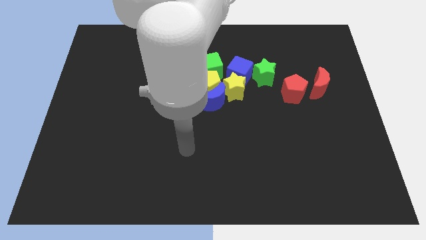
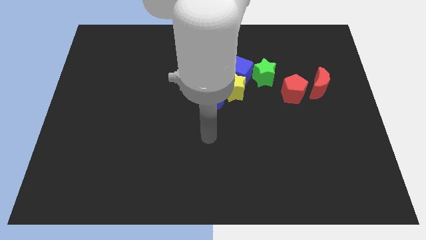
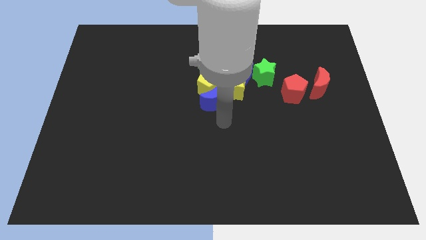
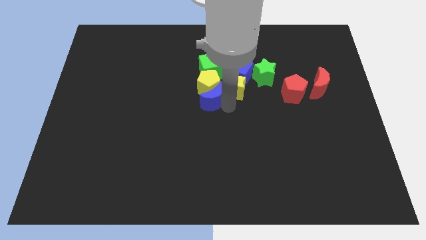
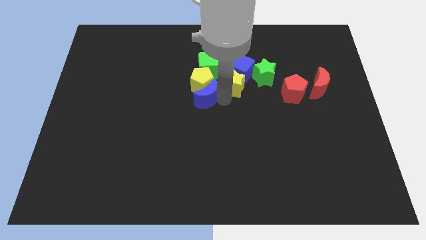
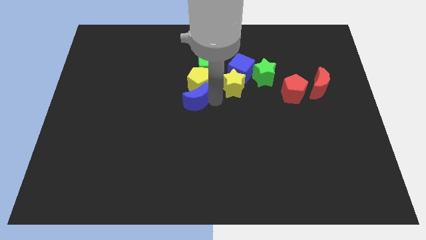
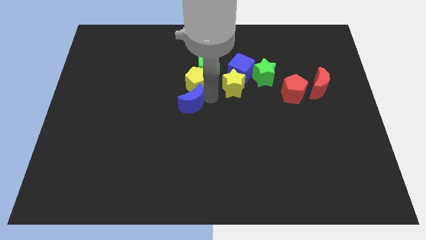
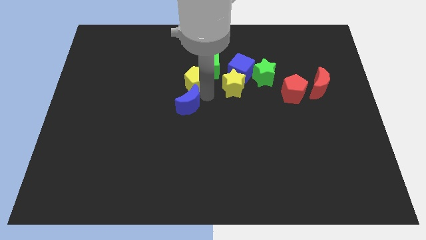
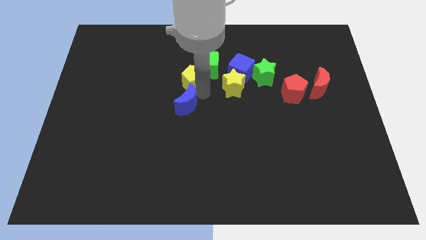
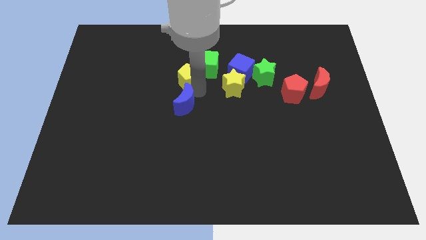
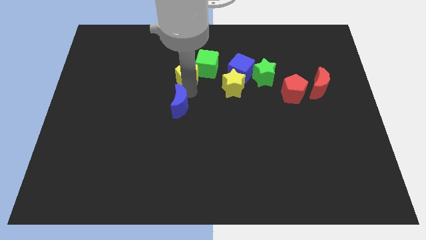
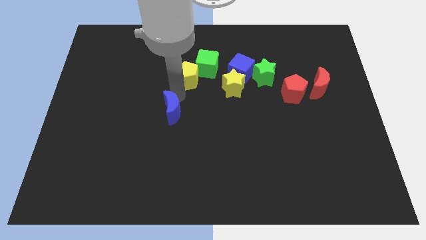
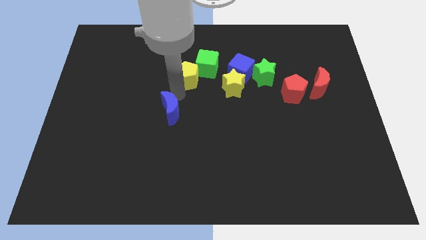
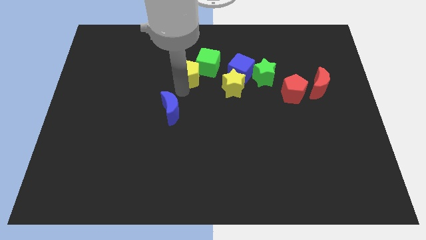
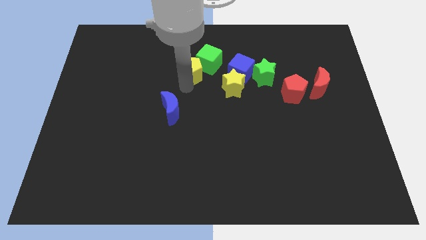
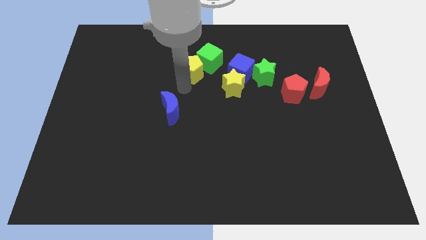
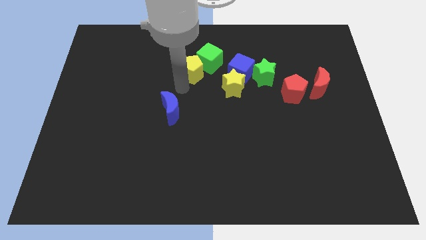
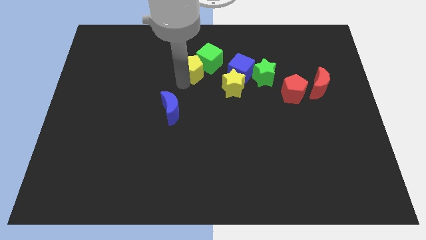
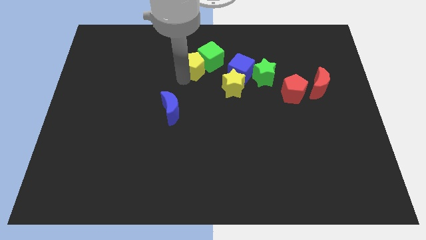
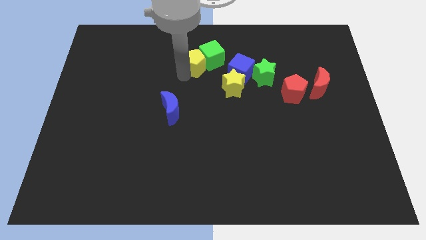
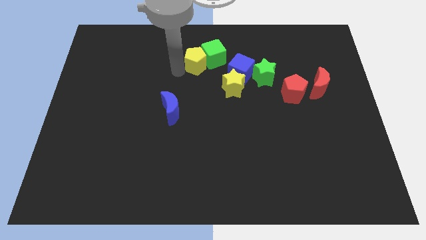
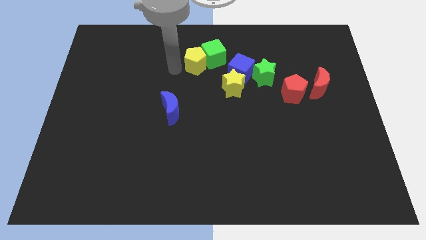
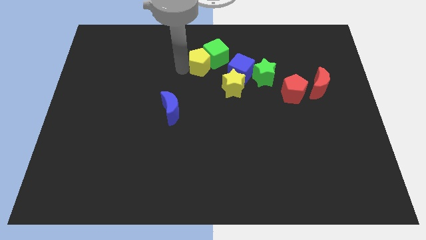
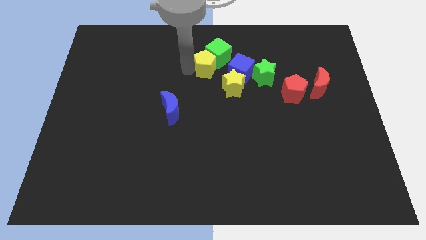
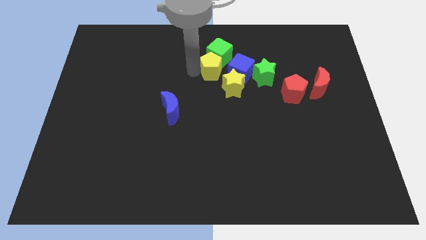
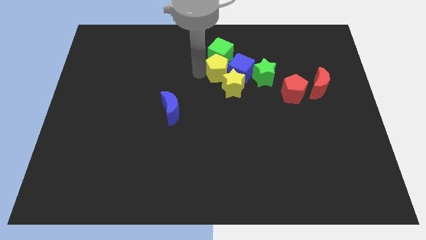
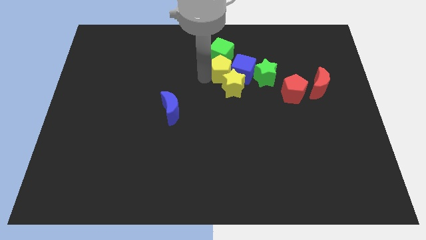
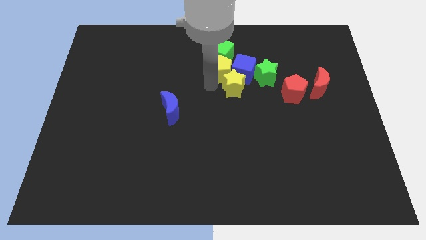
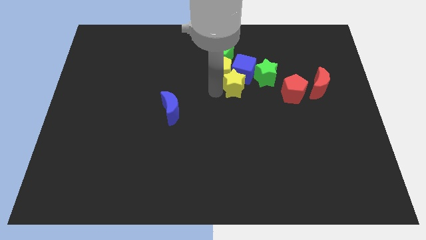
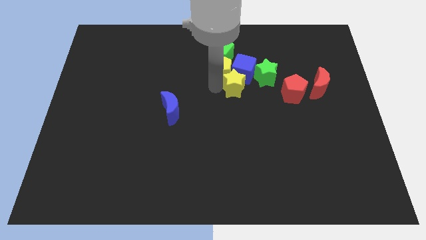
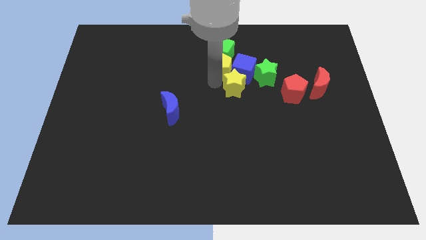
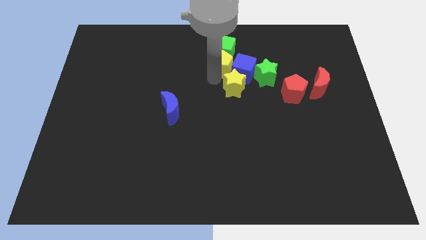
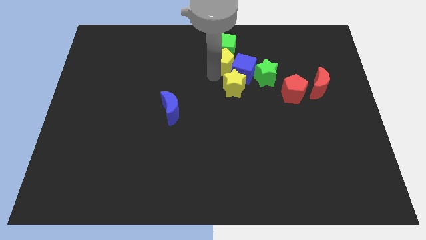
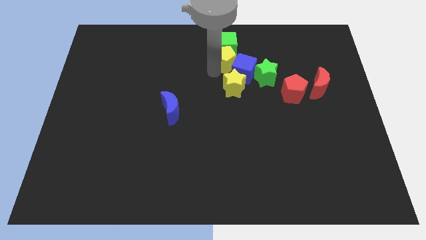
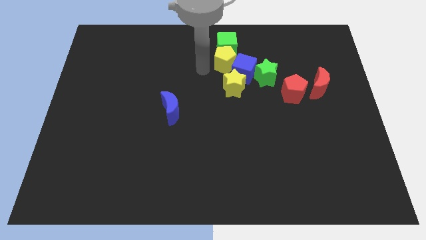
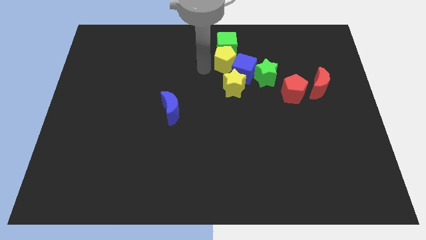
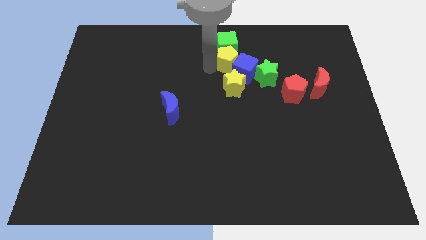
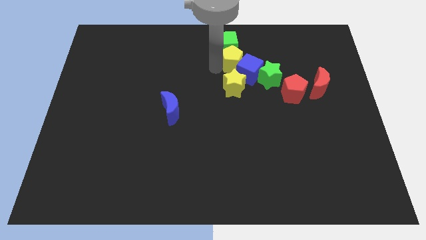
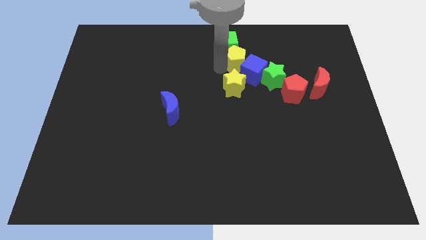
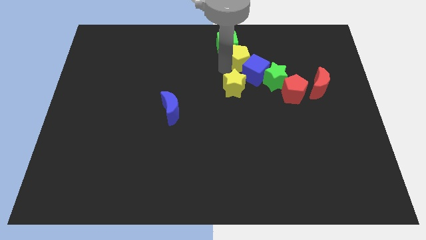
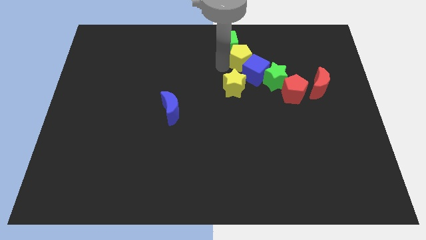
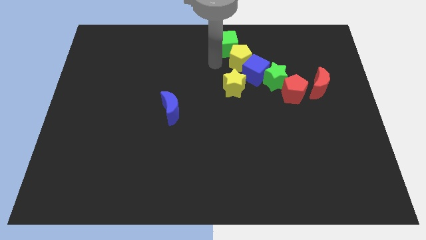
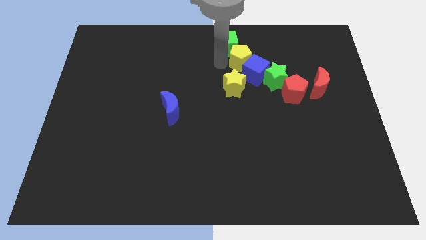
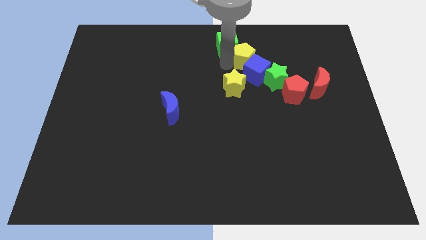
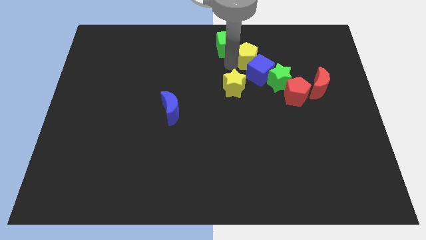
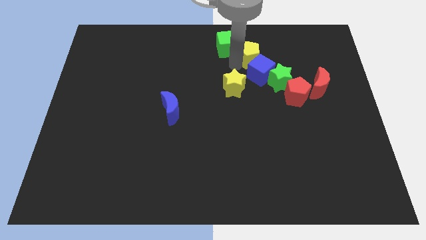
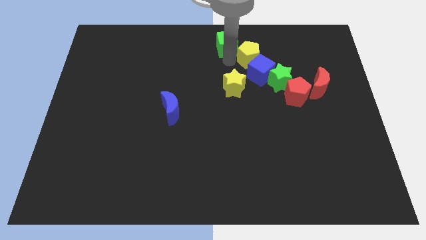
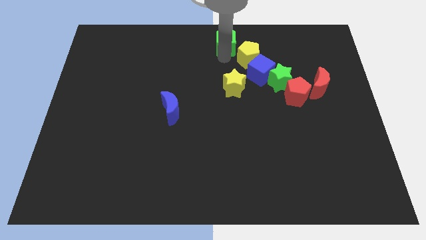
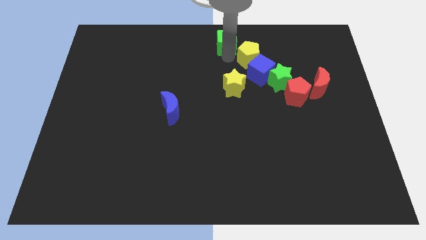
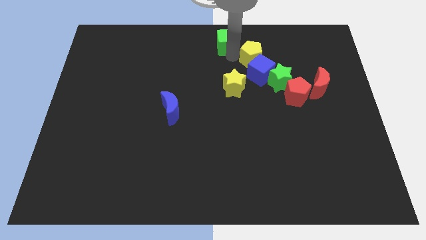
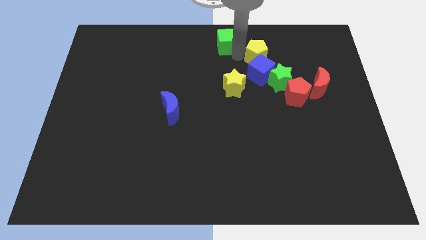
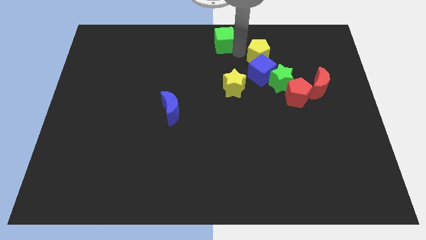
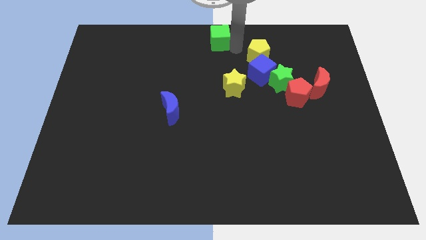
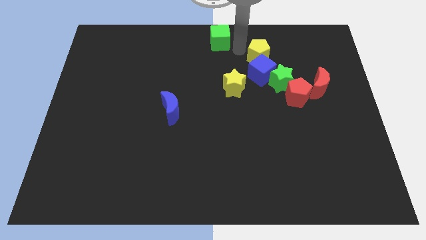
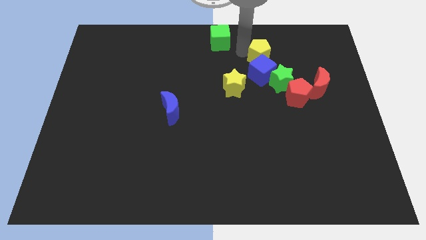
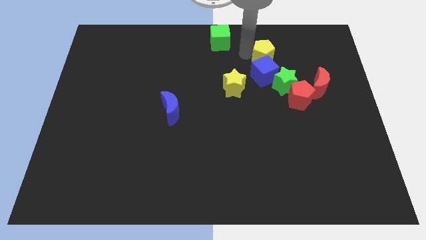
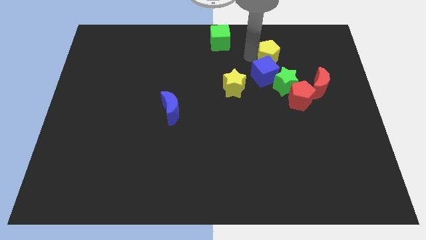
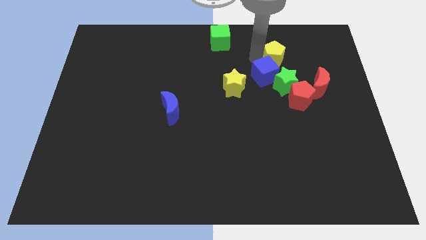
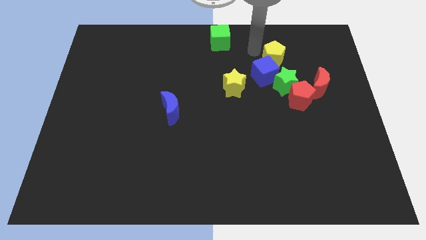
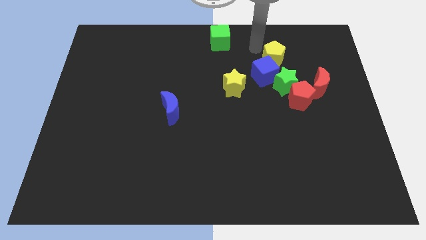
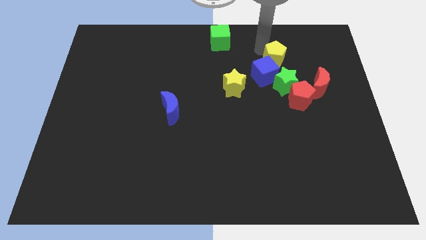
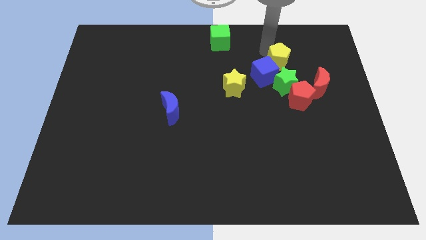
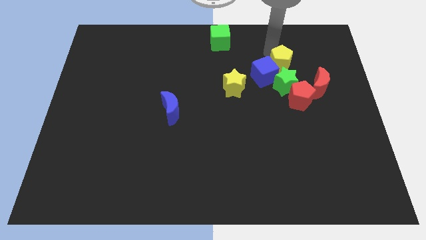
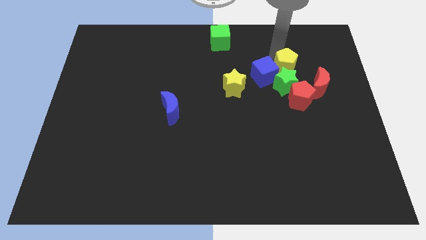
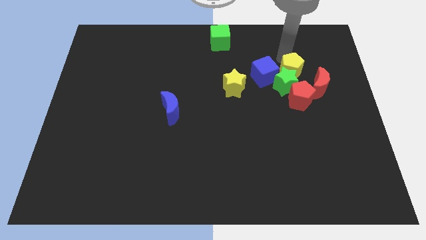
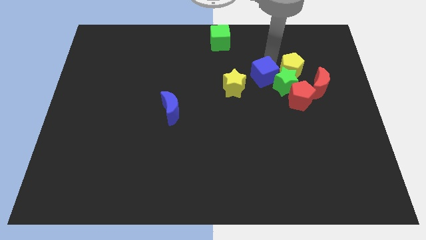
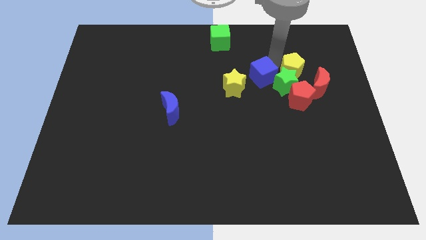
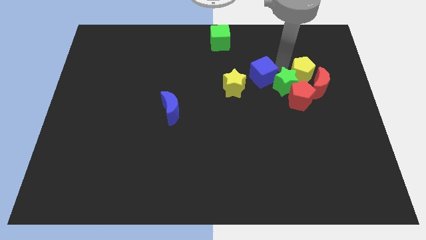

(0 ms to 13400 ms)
slide the yellow pentagon to the right of the green star
